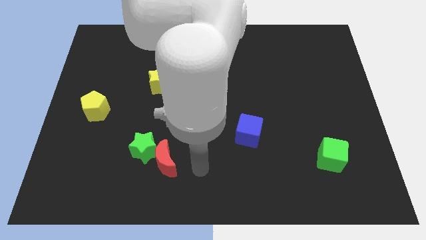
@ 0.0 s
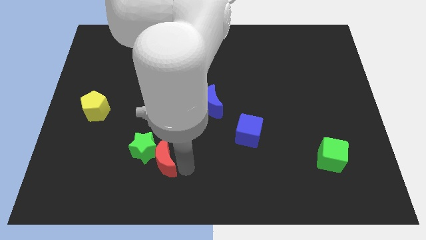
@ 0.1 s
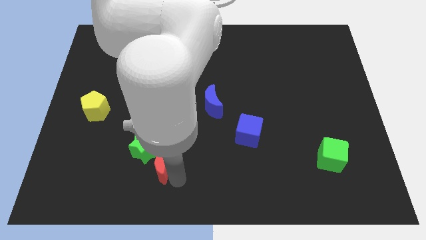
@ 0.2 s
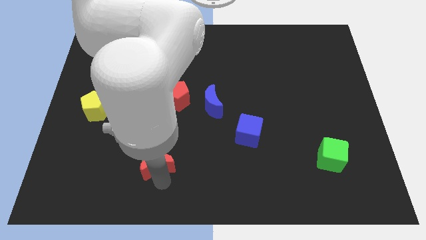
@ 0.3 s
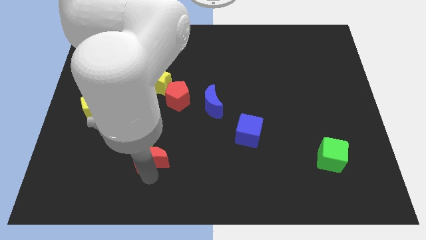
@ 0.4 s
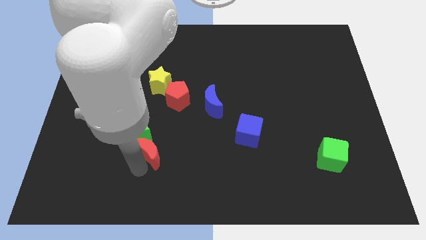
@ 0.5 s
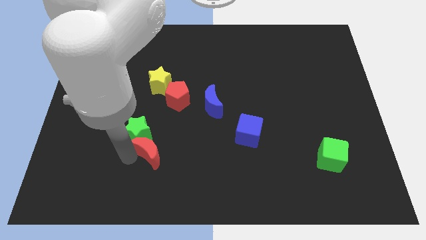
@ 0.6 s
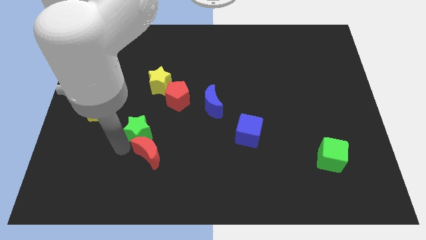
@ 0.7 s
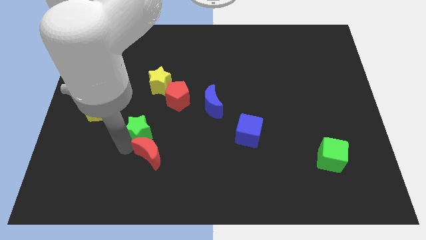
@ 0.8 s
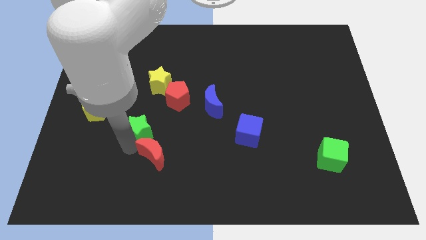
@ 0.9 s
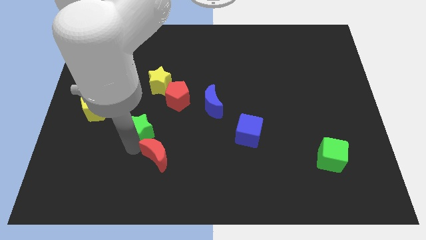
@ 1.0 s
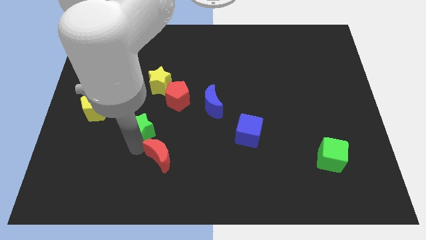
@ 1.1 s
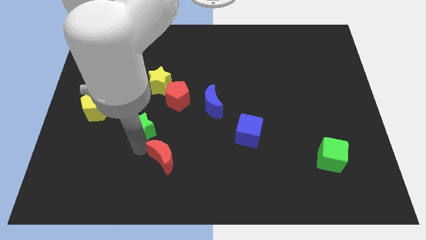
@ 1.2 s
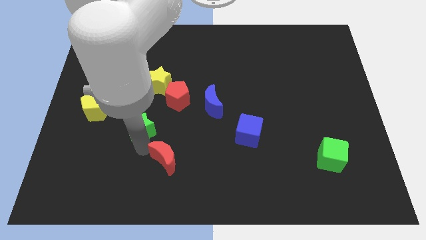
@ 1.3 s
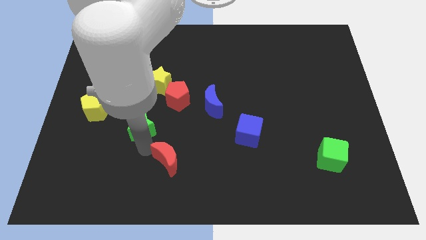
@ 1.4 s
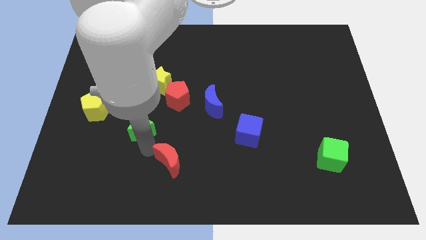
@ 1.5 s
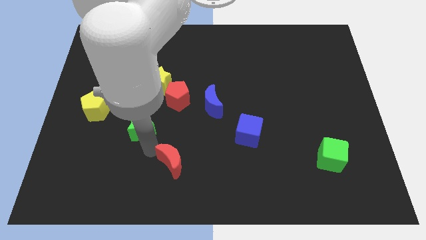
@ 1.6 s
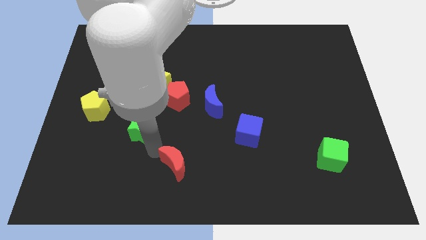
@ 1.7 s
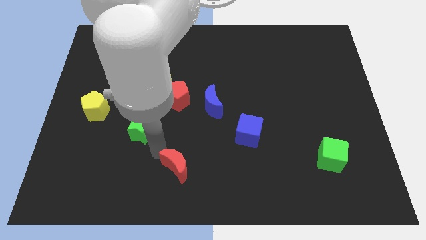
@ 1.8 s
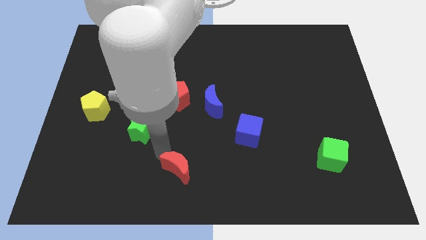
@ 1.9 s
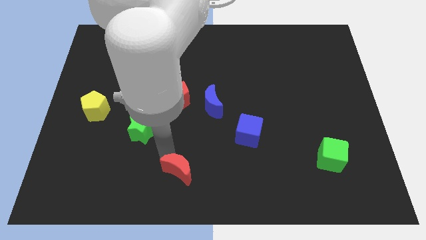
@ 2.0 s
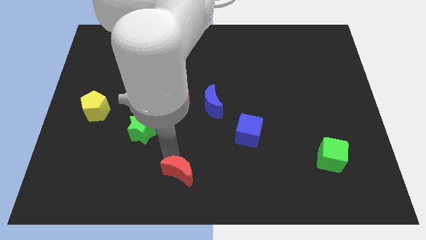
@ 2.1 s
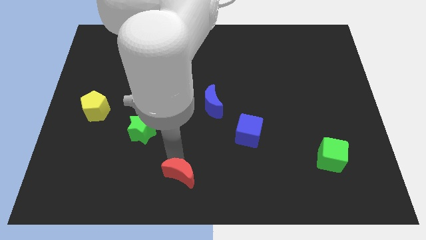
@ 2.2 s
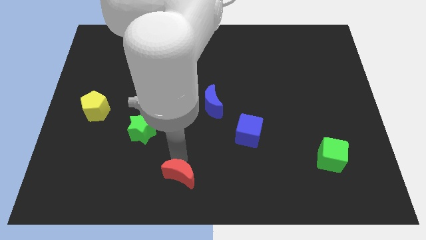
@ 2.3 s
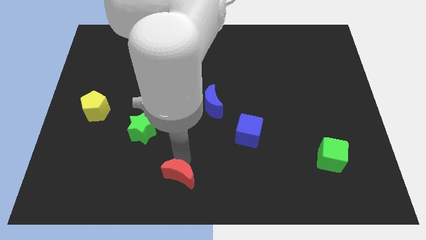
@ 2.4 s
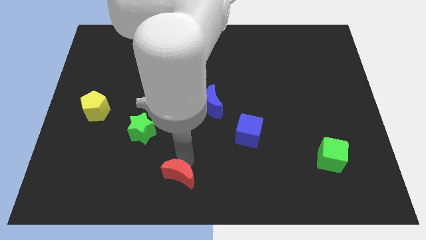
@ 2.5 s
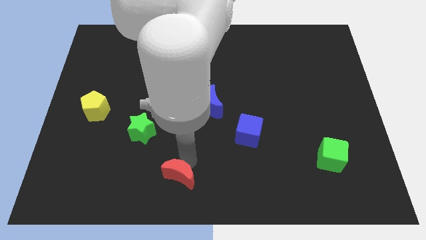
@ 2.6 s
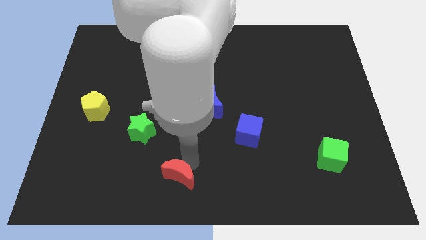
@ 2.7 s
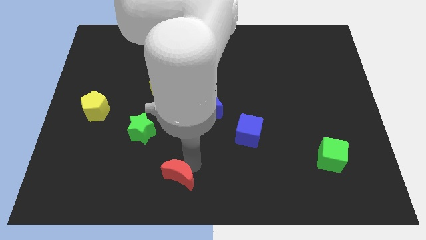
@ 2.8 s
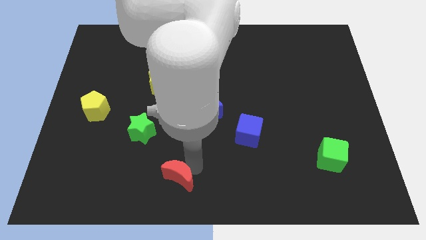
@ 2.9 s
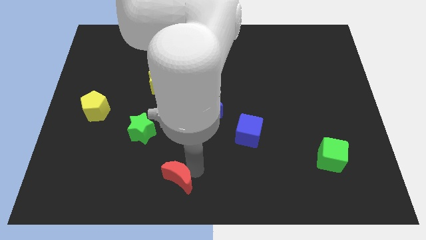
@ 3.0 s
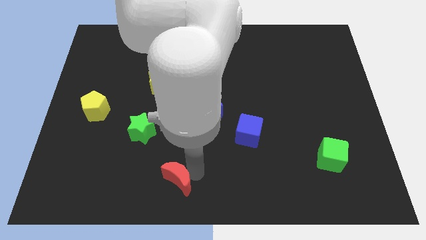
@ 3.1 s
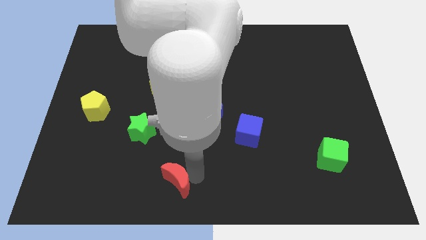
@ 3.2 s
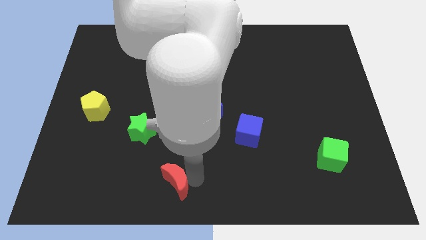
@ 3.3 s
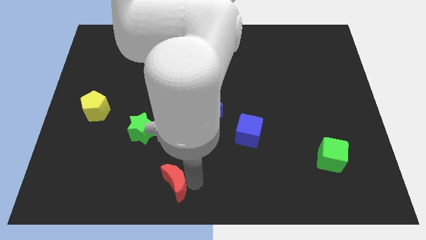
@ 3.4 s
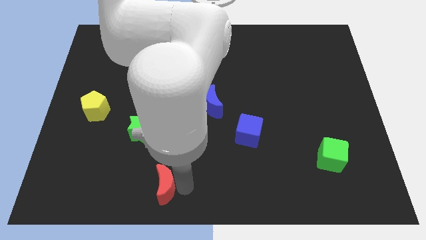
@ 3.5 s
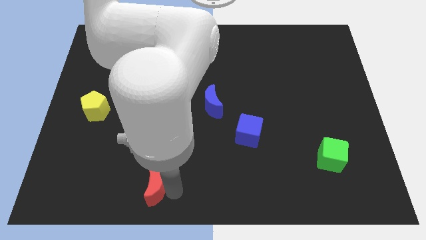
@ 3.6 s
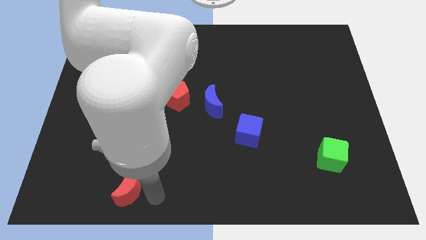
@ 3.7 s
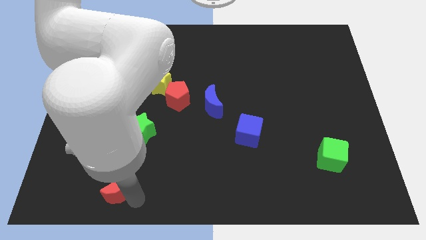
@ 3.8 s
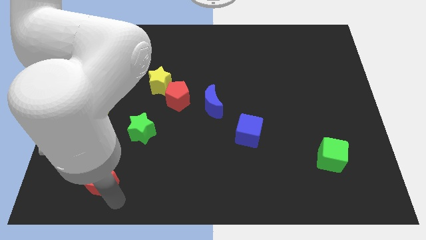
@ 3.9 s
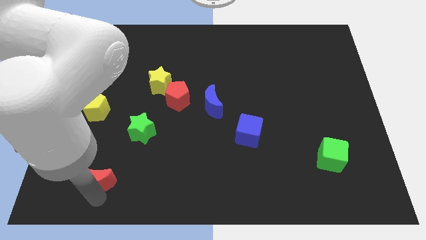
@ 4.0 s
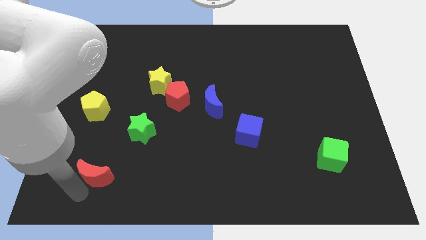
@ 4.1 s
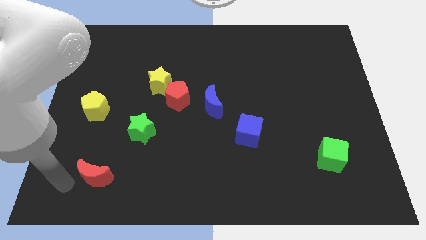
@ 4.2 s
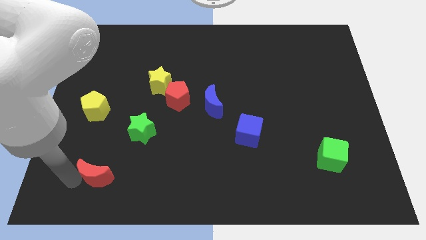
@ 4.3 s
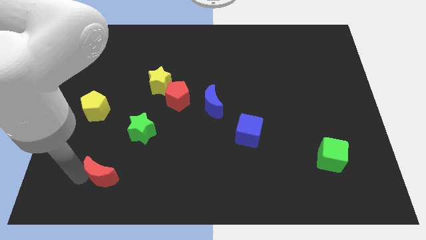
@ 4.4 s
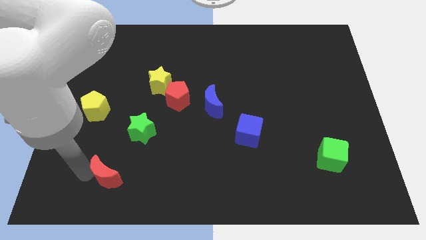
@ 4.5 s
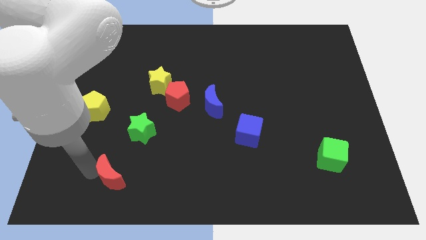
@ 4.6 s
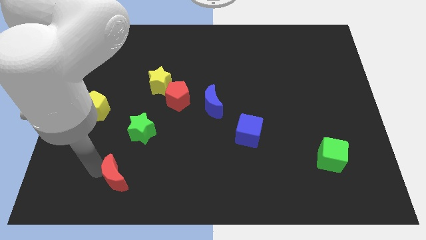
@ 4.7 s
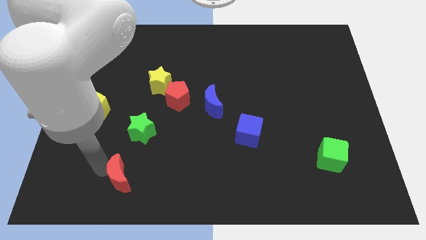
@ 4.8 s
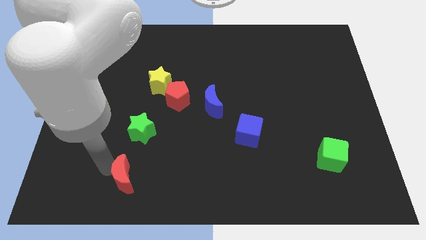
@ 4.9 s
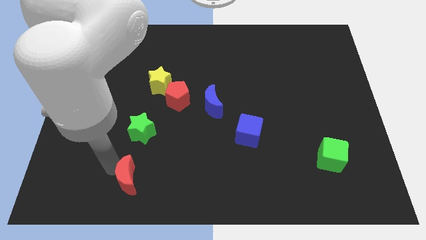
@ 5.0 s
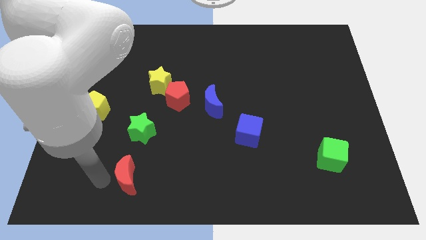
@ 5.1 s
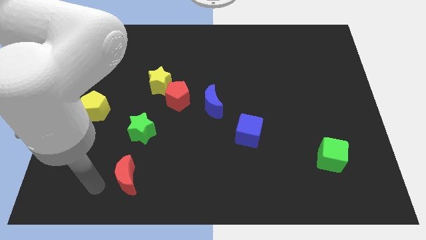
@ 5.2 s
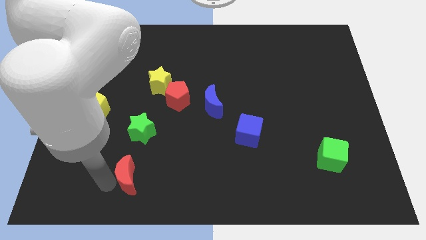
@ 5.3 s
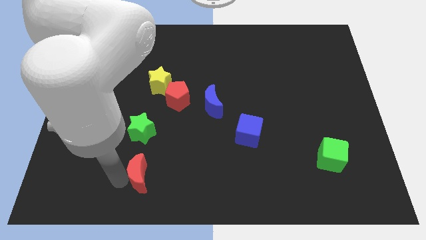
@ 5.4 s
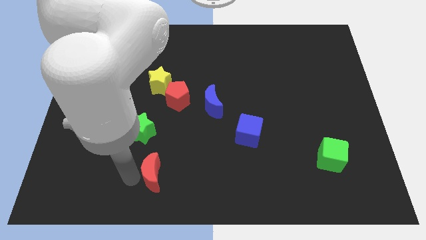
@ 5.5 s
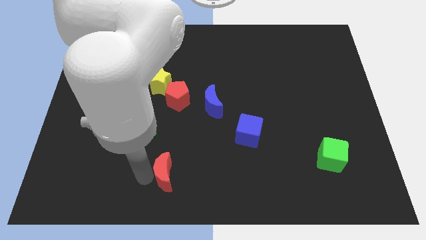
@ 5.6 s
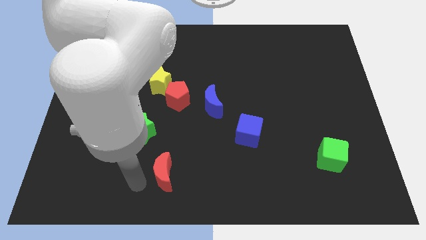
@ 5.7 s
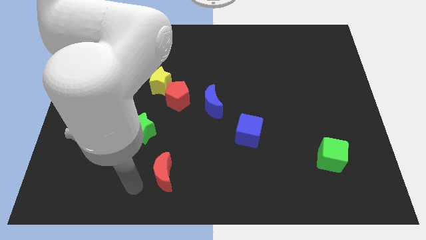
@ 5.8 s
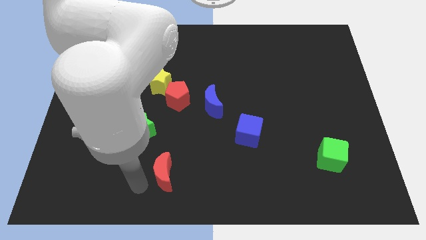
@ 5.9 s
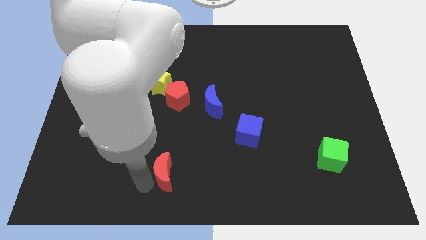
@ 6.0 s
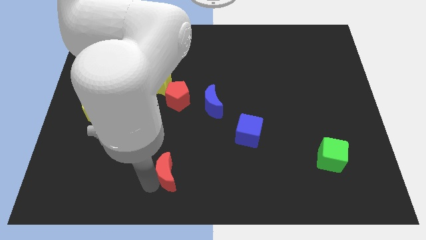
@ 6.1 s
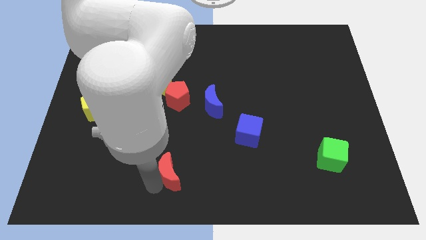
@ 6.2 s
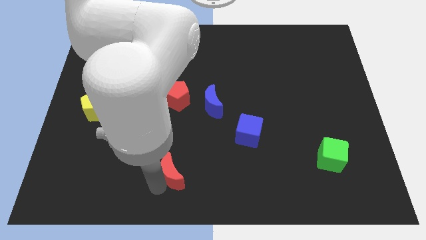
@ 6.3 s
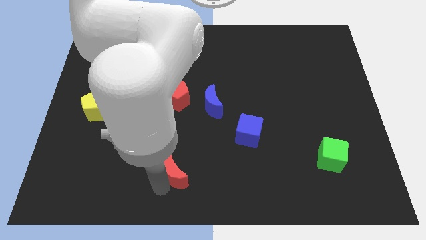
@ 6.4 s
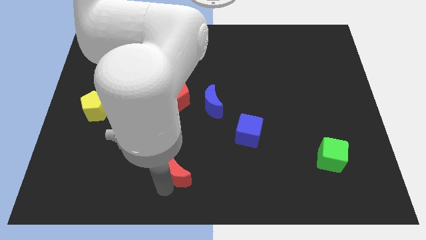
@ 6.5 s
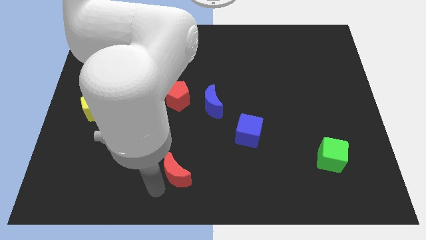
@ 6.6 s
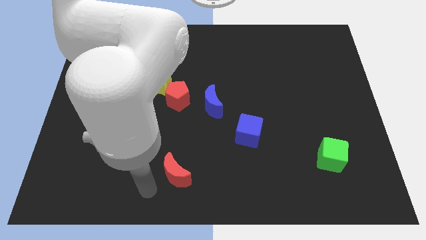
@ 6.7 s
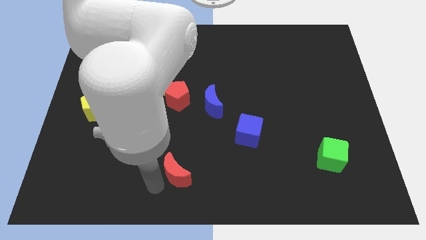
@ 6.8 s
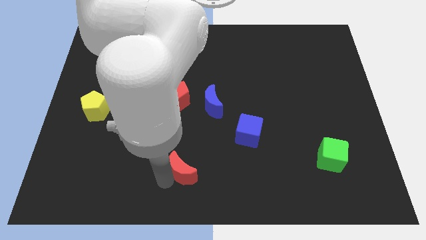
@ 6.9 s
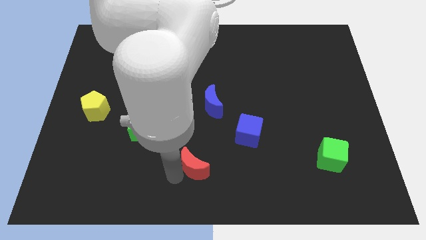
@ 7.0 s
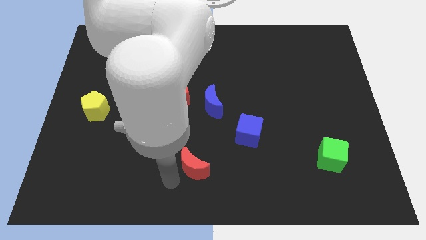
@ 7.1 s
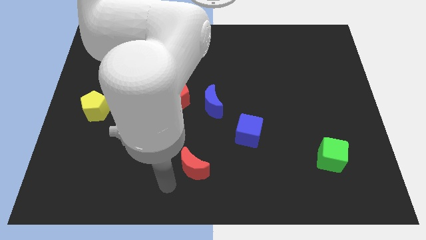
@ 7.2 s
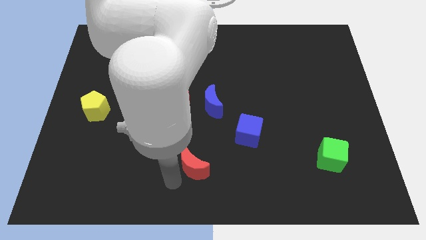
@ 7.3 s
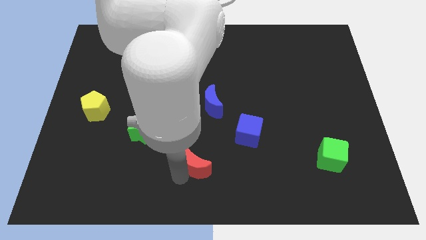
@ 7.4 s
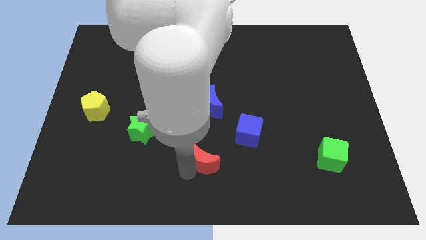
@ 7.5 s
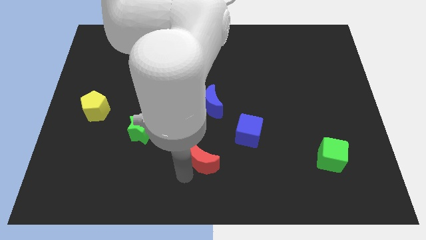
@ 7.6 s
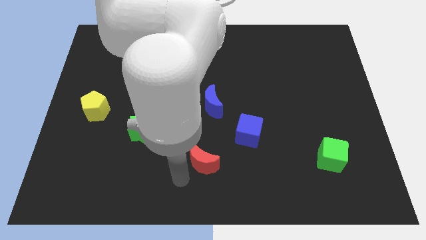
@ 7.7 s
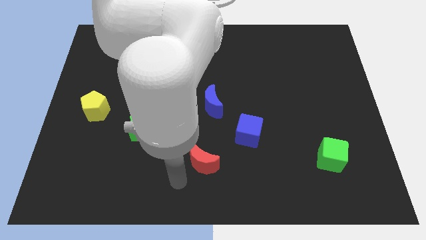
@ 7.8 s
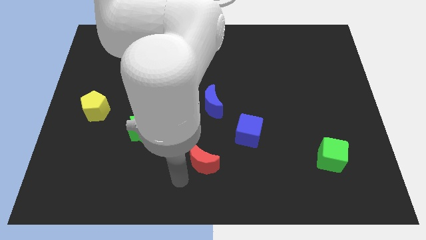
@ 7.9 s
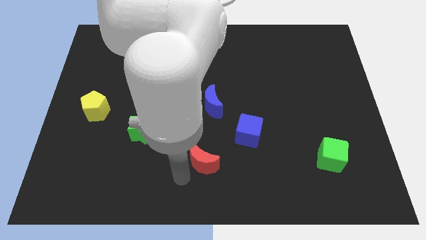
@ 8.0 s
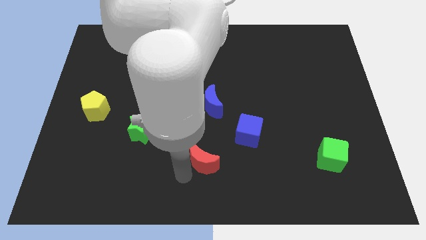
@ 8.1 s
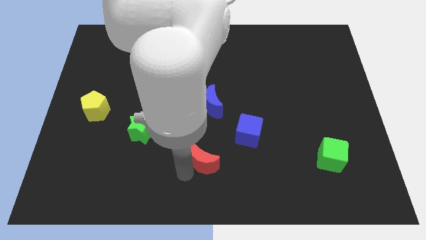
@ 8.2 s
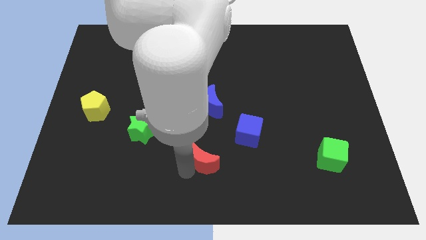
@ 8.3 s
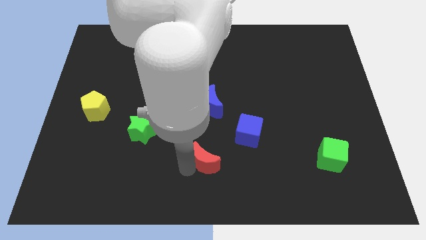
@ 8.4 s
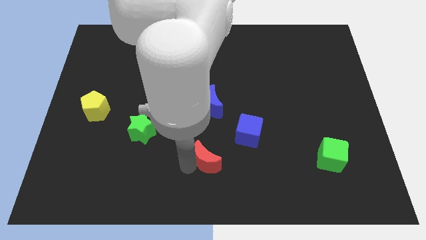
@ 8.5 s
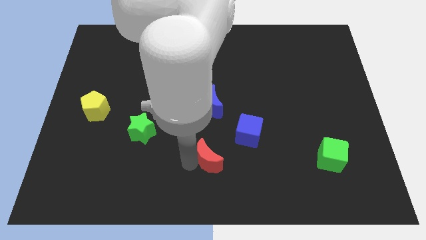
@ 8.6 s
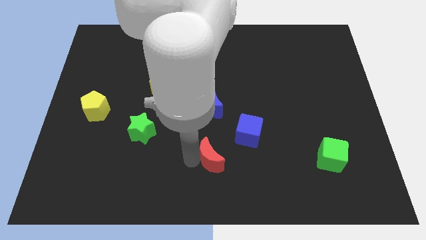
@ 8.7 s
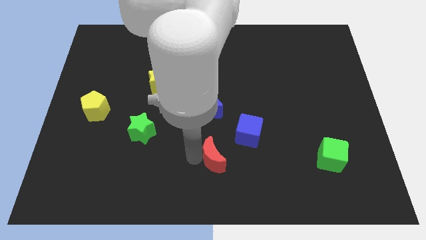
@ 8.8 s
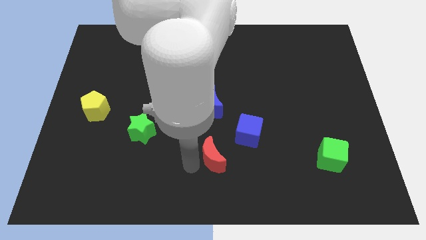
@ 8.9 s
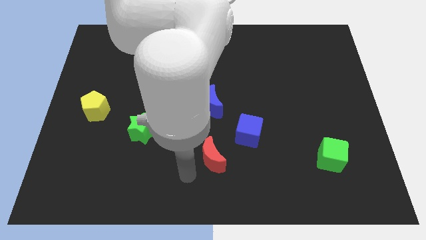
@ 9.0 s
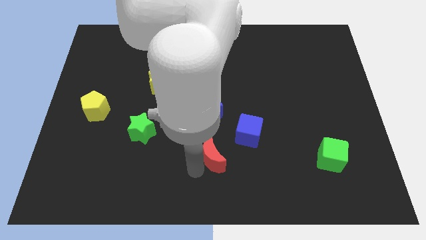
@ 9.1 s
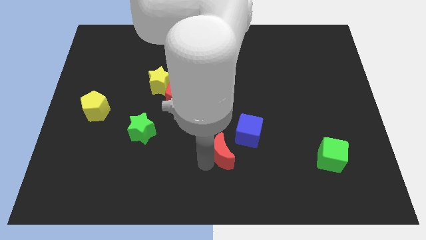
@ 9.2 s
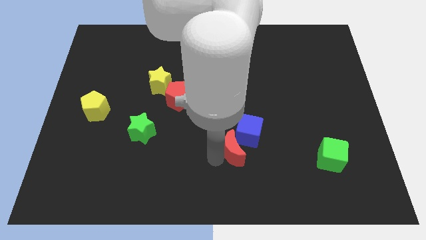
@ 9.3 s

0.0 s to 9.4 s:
slide the red moon to the blue cube
